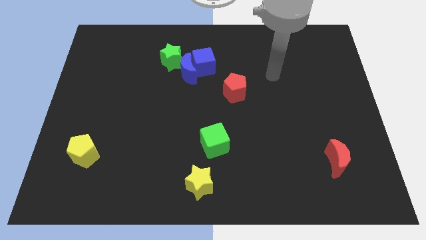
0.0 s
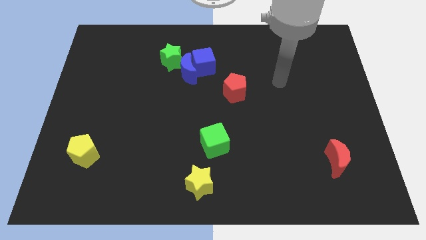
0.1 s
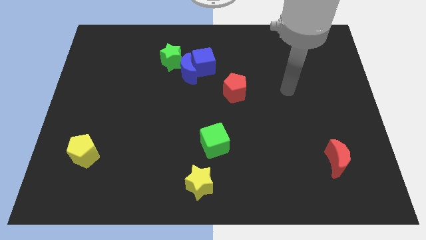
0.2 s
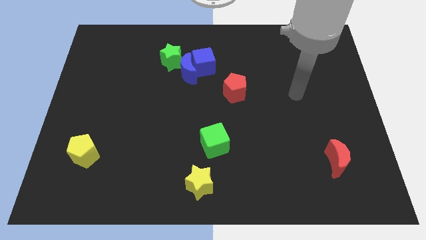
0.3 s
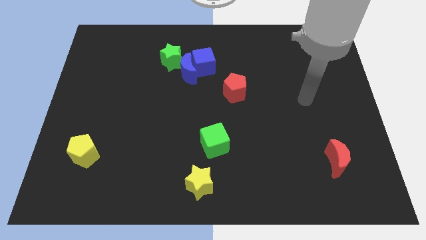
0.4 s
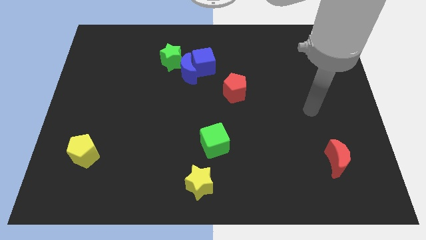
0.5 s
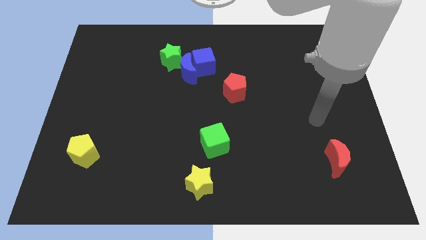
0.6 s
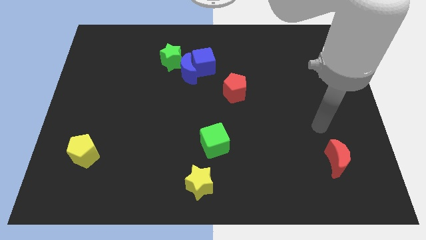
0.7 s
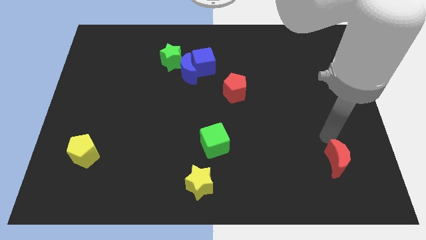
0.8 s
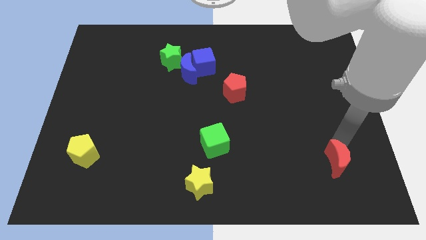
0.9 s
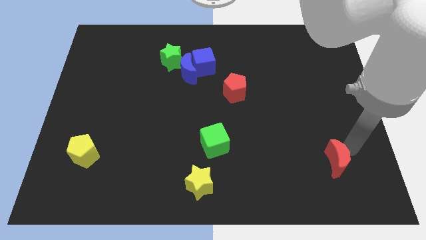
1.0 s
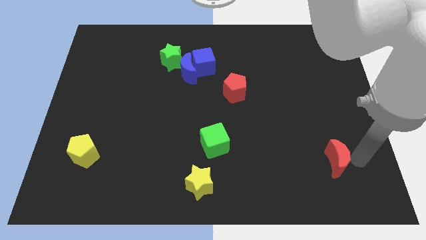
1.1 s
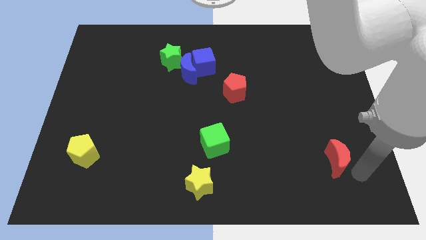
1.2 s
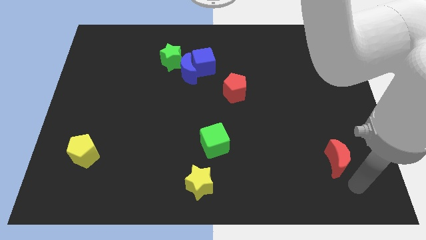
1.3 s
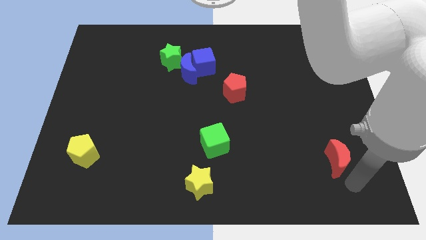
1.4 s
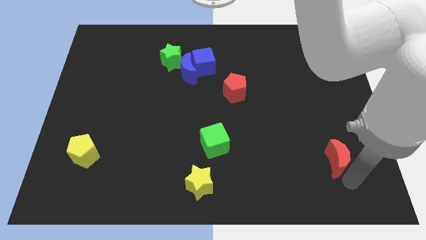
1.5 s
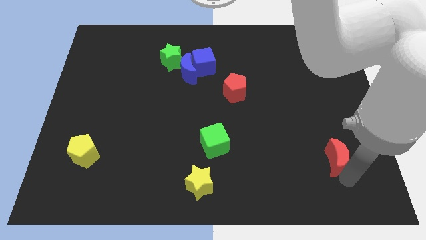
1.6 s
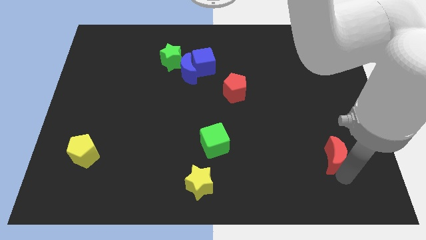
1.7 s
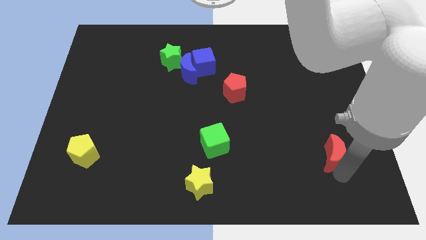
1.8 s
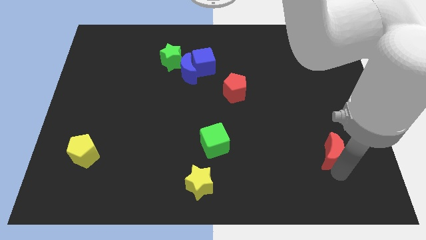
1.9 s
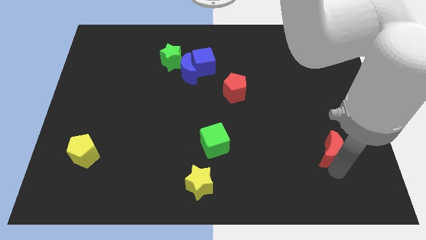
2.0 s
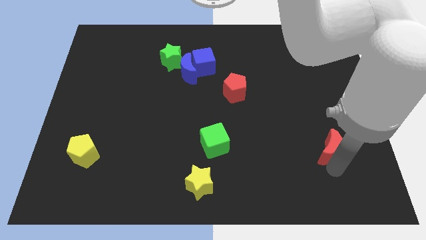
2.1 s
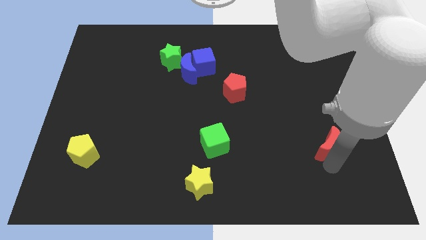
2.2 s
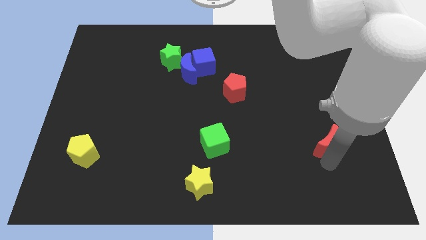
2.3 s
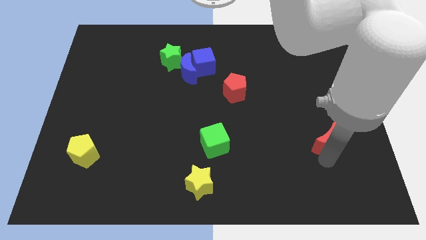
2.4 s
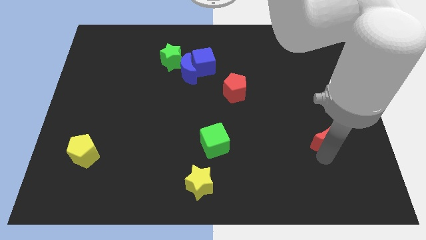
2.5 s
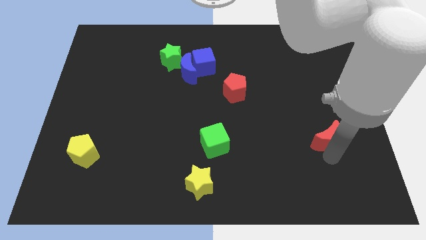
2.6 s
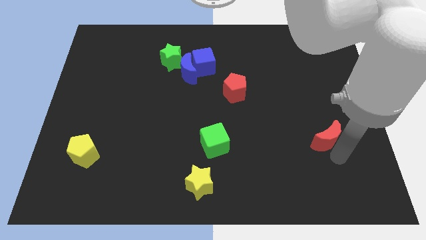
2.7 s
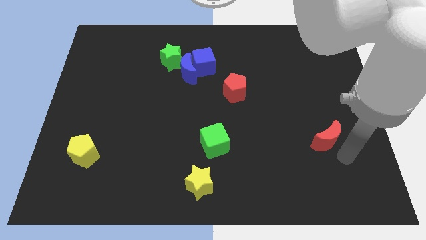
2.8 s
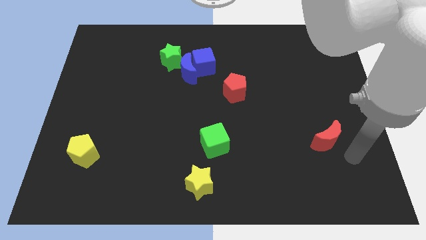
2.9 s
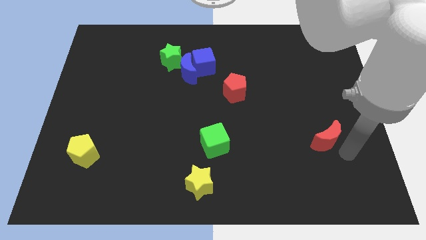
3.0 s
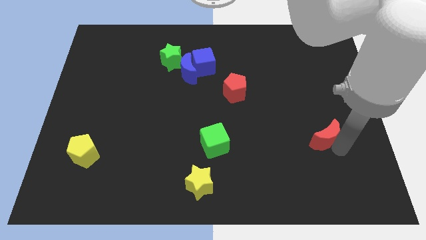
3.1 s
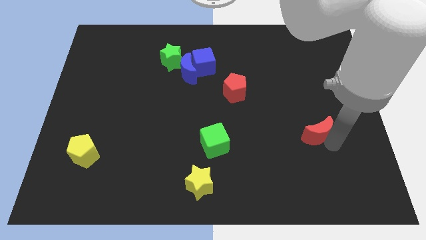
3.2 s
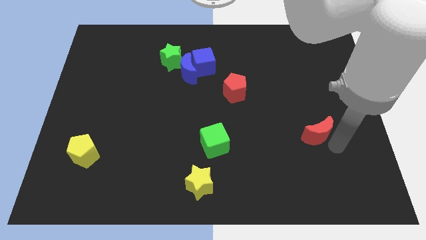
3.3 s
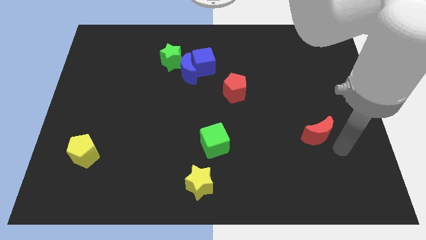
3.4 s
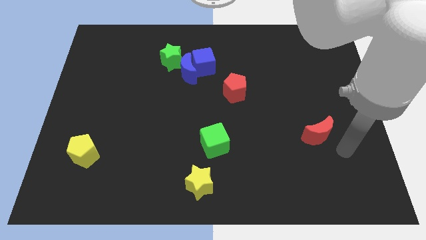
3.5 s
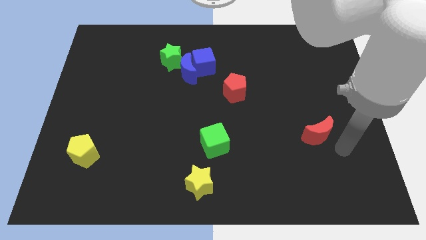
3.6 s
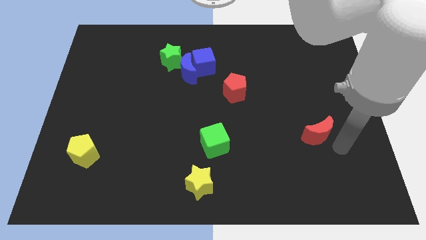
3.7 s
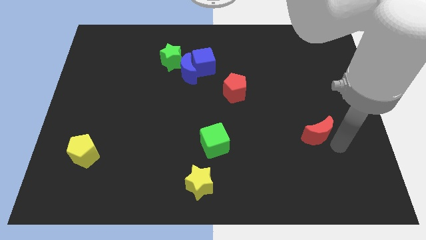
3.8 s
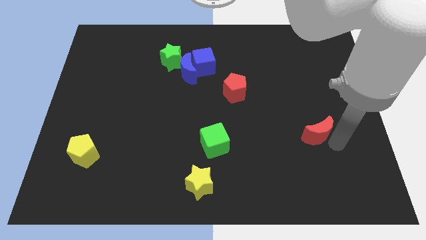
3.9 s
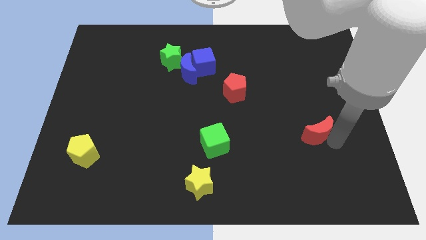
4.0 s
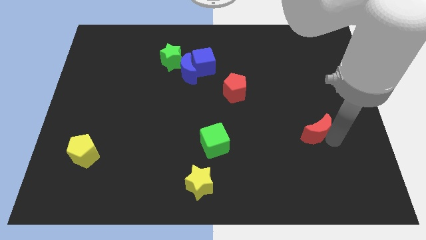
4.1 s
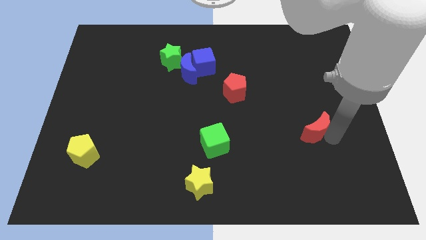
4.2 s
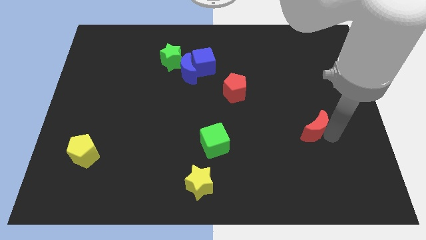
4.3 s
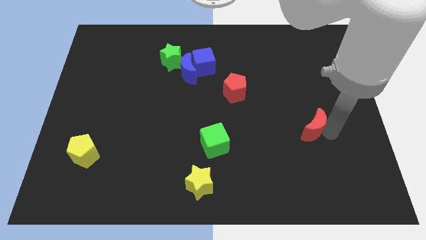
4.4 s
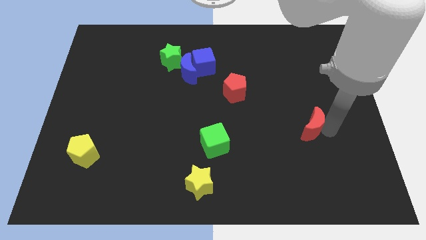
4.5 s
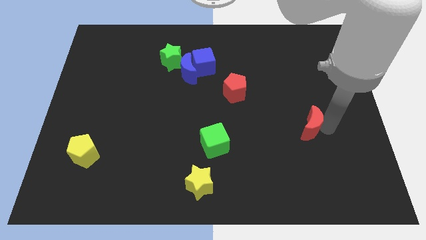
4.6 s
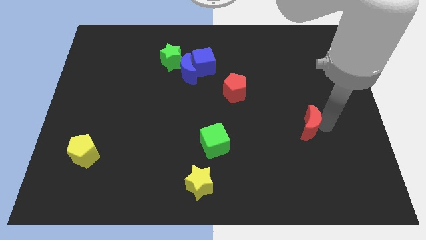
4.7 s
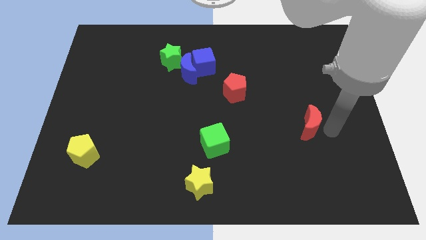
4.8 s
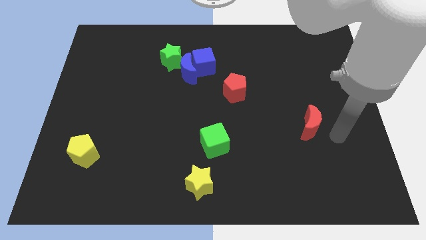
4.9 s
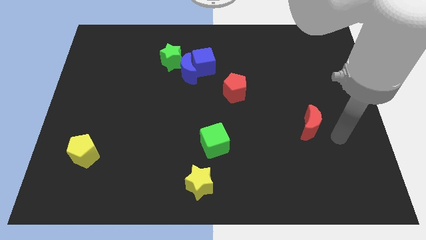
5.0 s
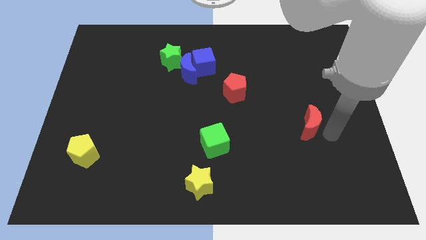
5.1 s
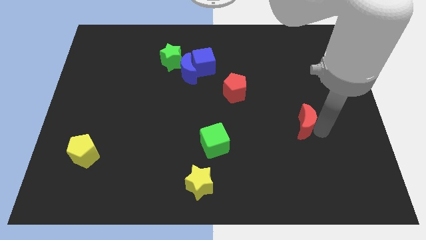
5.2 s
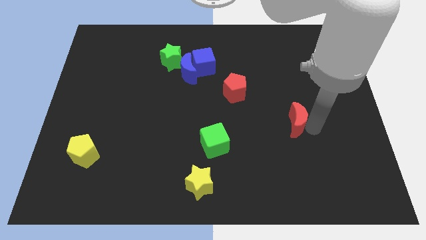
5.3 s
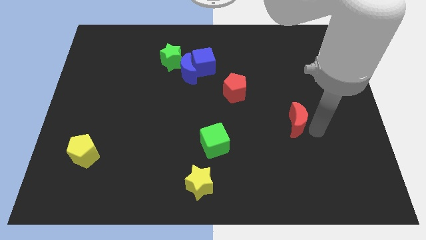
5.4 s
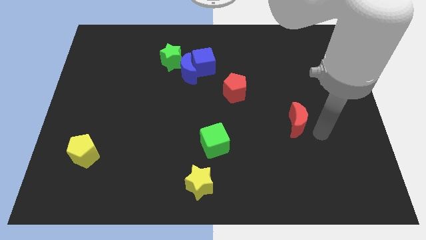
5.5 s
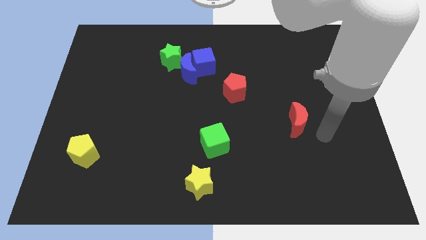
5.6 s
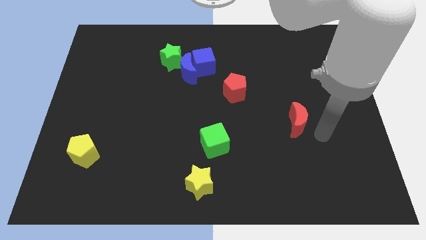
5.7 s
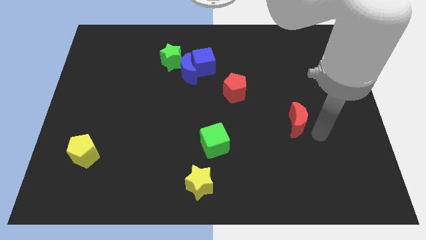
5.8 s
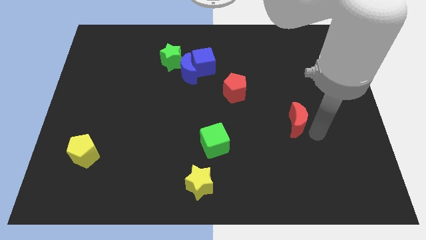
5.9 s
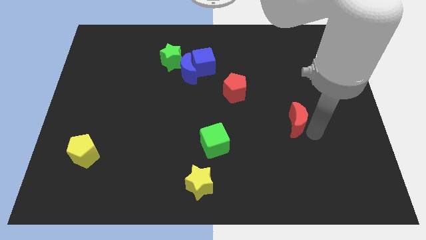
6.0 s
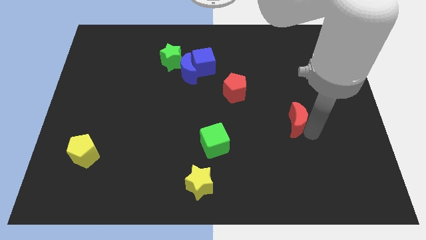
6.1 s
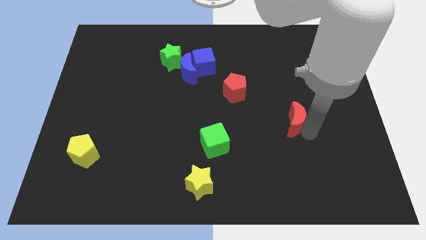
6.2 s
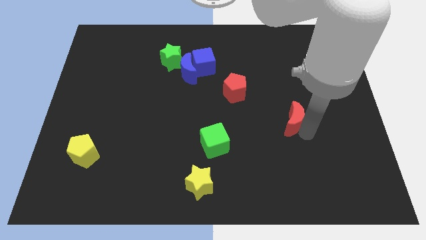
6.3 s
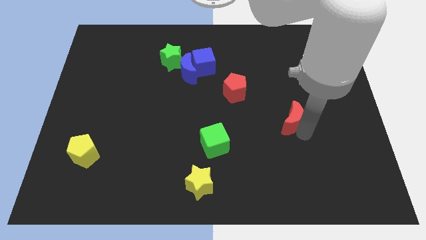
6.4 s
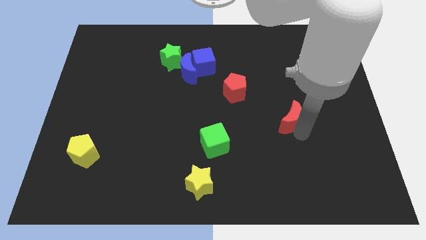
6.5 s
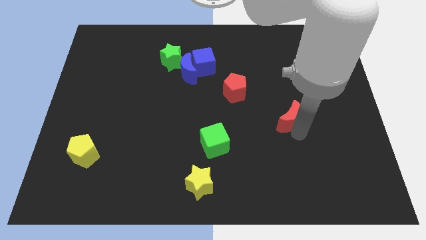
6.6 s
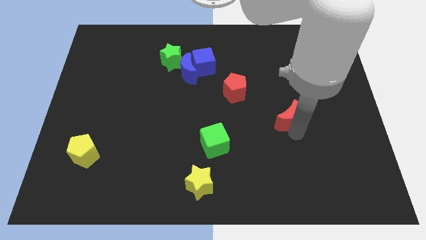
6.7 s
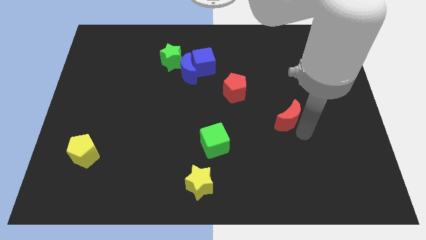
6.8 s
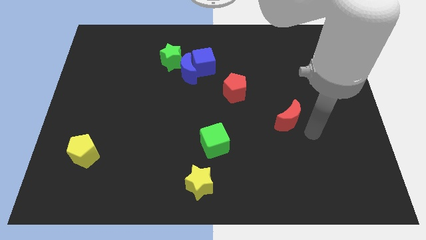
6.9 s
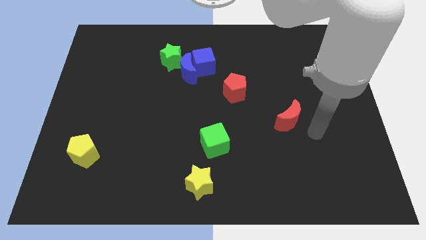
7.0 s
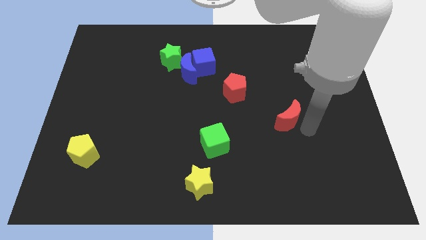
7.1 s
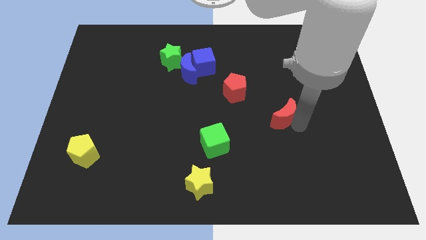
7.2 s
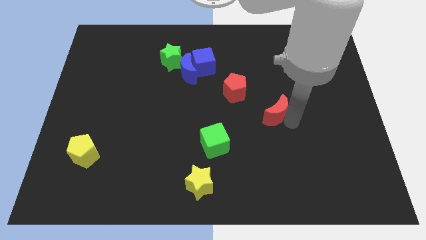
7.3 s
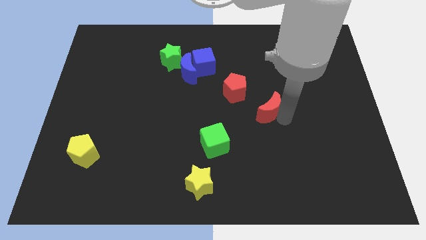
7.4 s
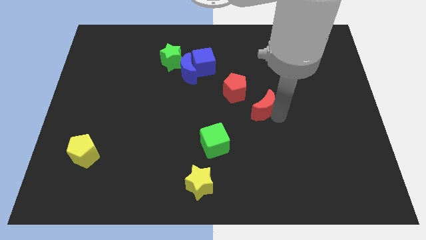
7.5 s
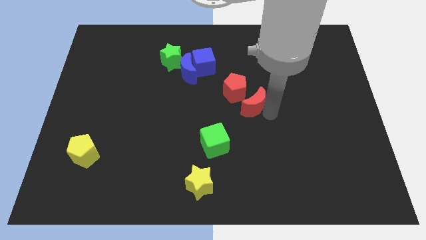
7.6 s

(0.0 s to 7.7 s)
push the red moon to the red pentagon
